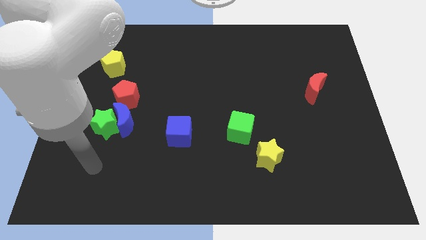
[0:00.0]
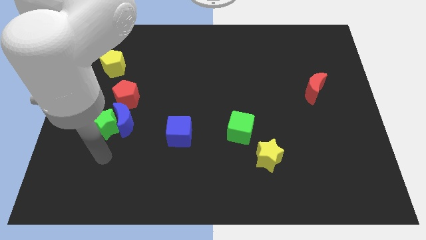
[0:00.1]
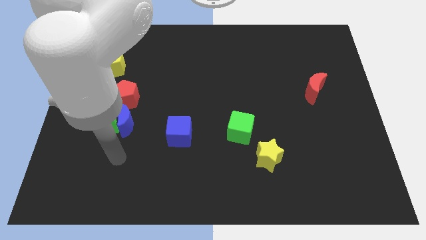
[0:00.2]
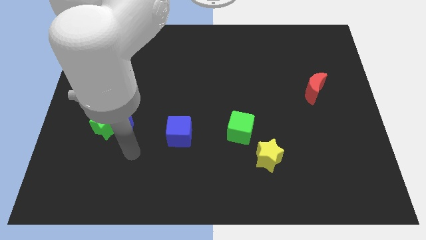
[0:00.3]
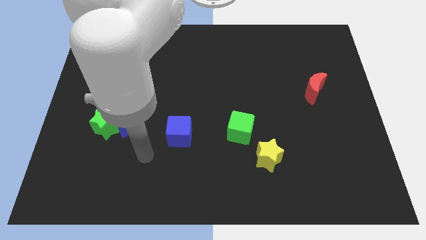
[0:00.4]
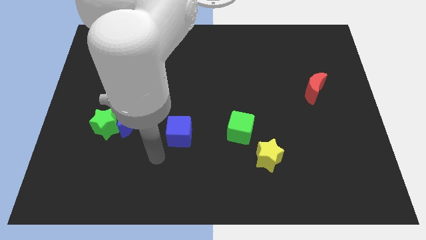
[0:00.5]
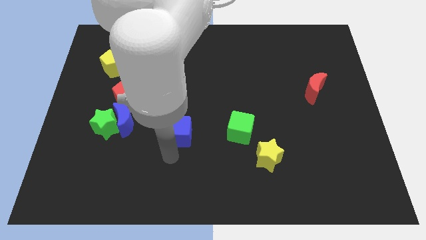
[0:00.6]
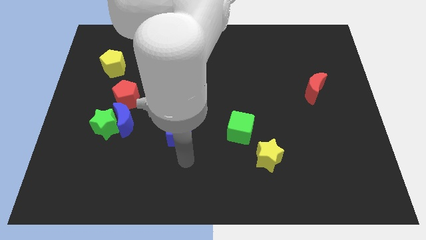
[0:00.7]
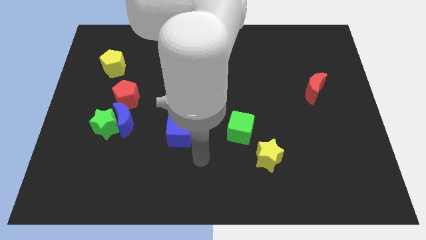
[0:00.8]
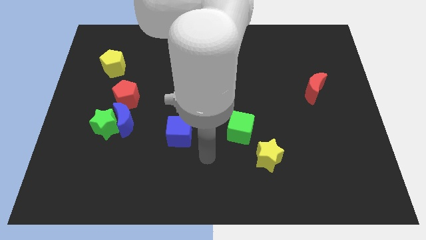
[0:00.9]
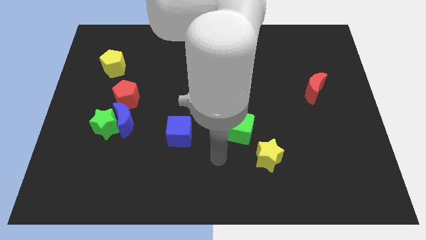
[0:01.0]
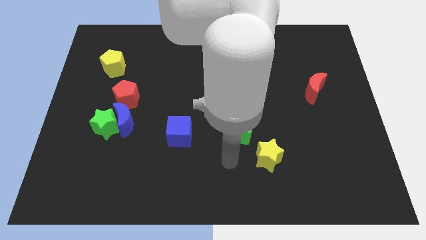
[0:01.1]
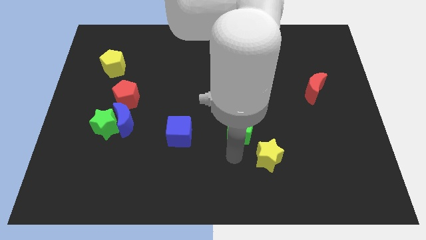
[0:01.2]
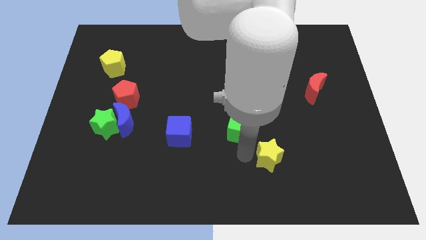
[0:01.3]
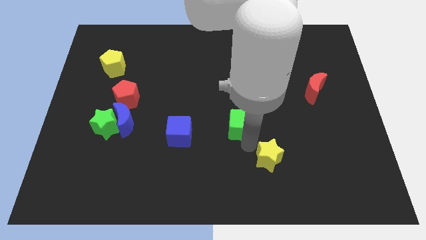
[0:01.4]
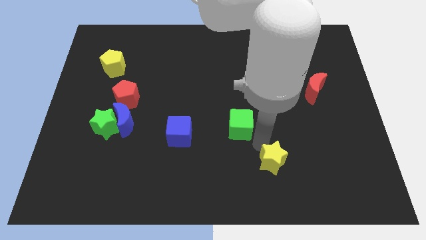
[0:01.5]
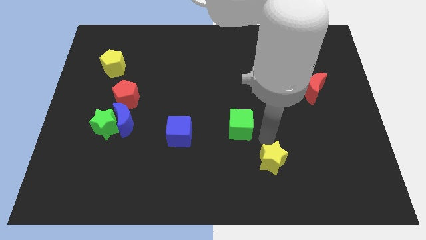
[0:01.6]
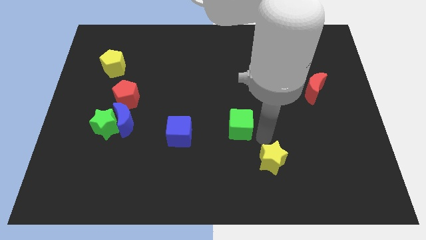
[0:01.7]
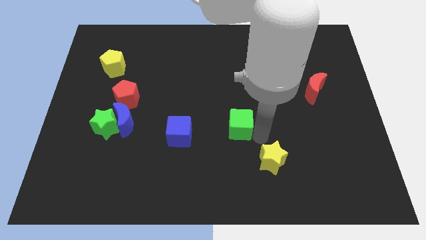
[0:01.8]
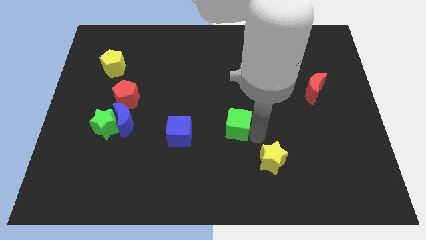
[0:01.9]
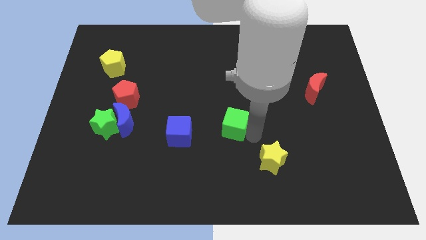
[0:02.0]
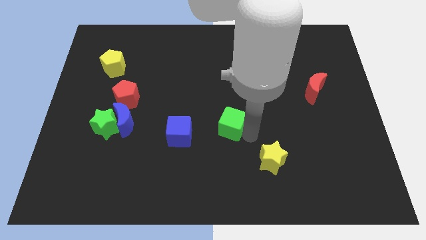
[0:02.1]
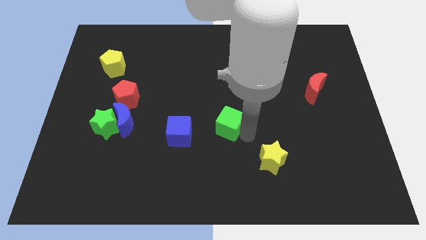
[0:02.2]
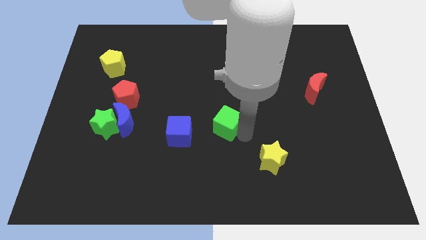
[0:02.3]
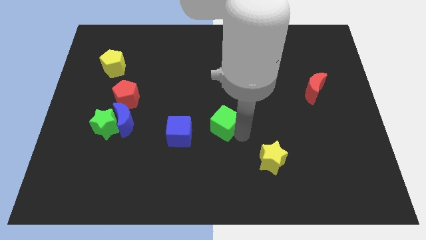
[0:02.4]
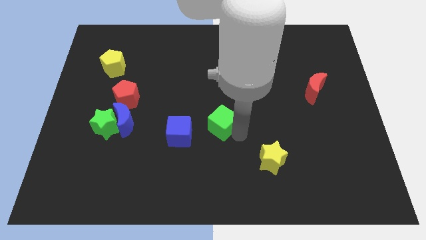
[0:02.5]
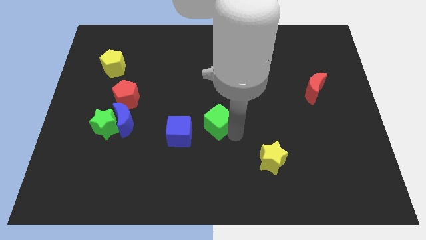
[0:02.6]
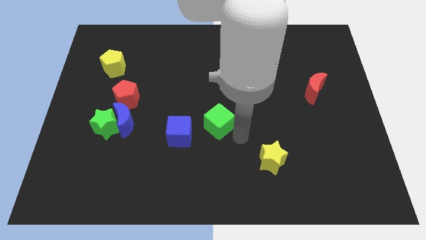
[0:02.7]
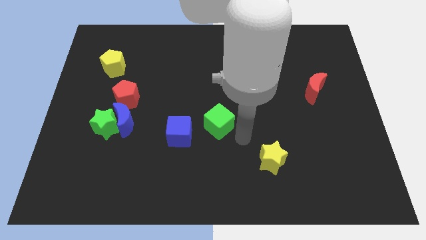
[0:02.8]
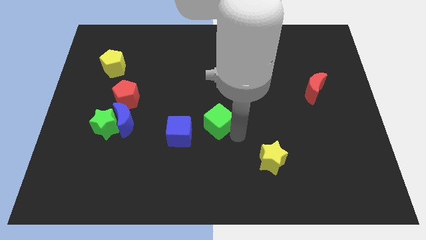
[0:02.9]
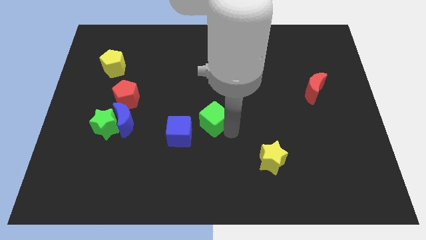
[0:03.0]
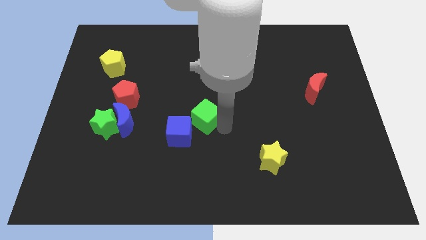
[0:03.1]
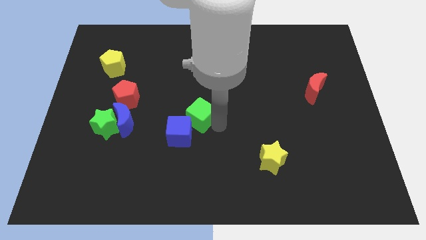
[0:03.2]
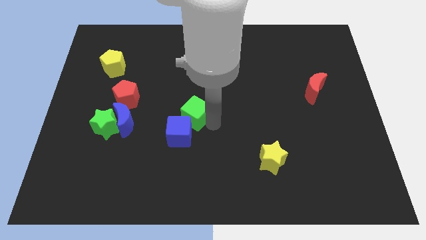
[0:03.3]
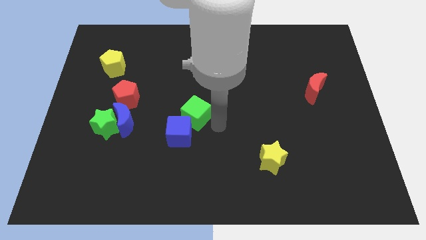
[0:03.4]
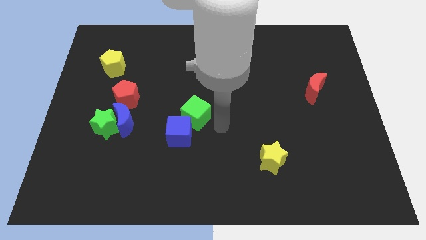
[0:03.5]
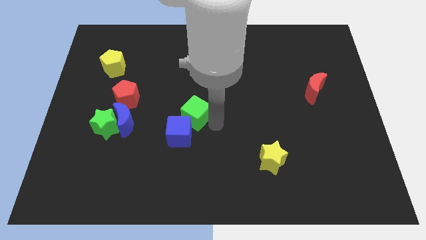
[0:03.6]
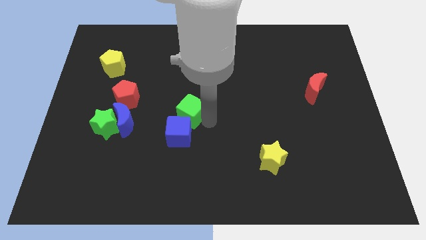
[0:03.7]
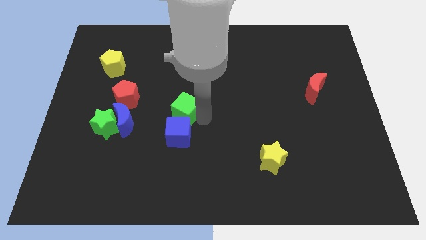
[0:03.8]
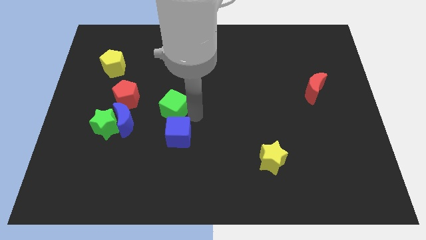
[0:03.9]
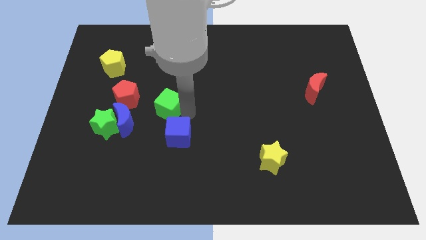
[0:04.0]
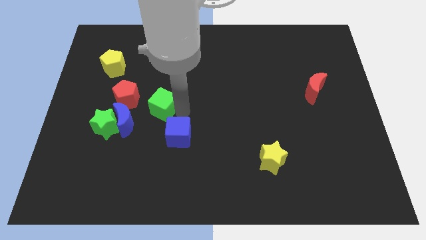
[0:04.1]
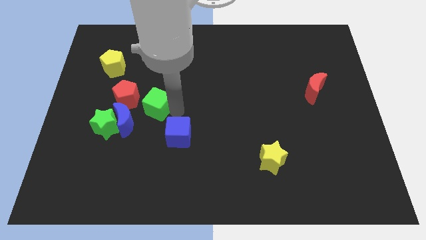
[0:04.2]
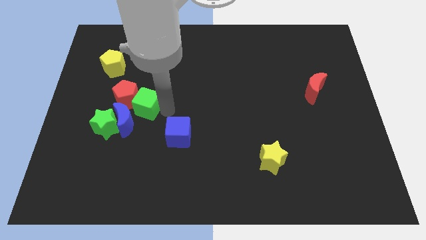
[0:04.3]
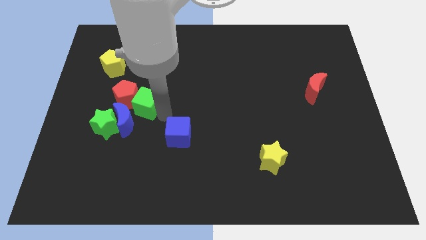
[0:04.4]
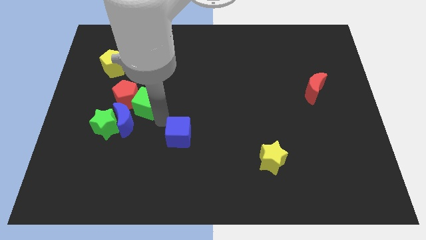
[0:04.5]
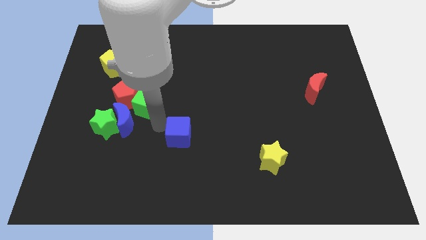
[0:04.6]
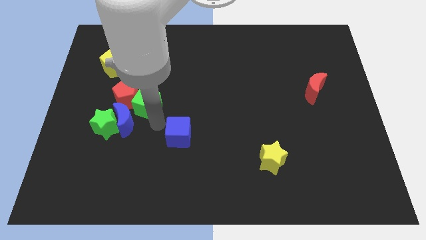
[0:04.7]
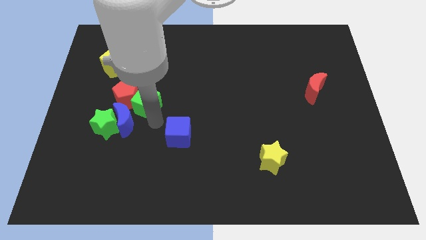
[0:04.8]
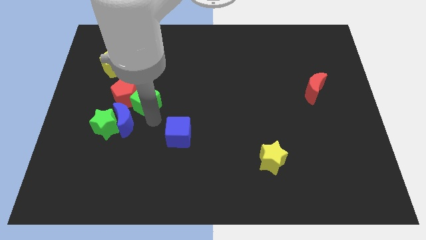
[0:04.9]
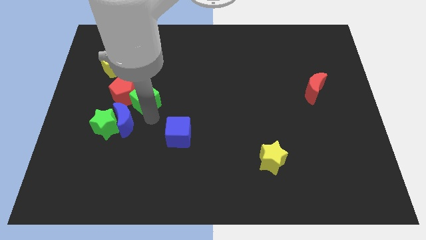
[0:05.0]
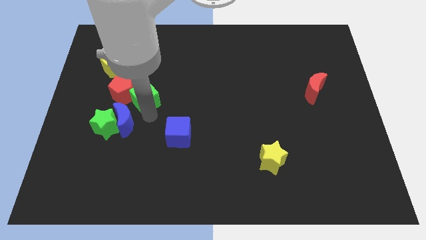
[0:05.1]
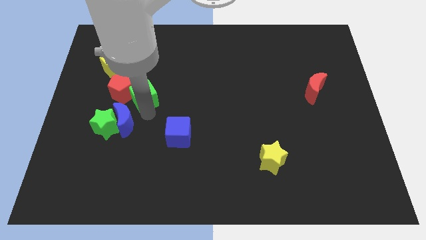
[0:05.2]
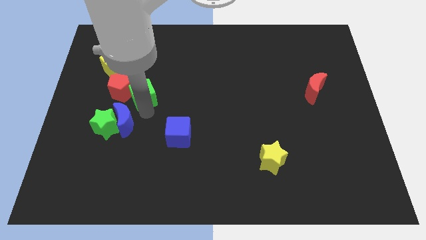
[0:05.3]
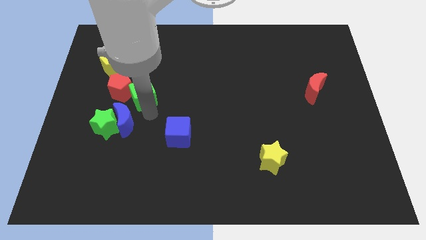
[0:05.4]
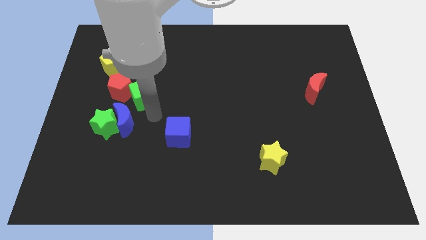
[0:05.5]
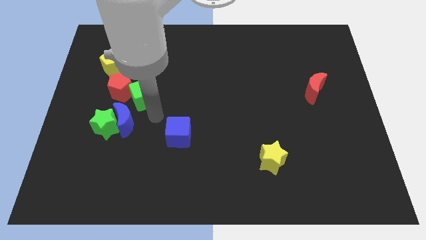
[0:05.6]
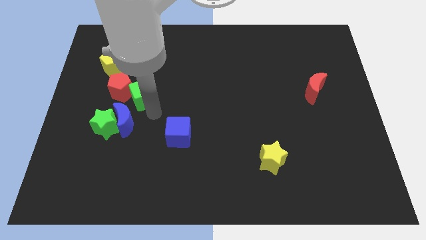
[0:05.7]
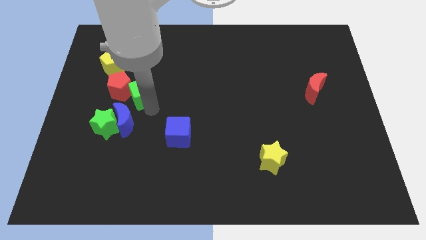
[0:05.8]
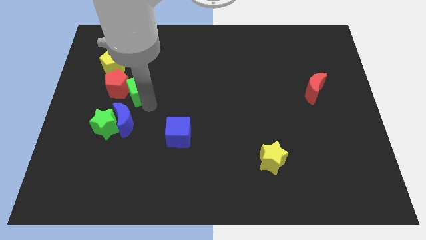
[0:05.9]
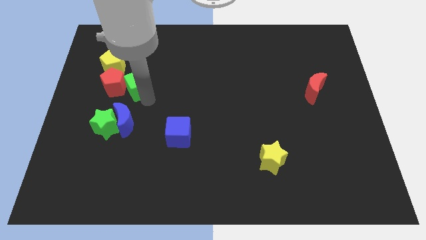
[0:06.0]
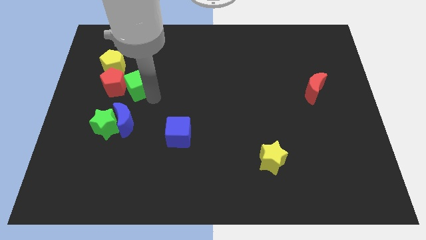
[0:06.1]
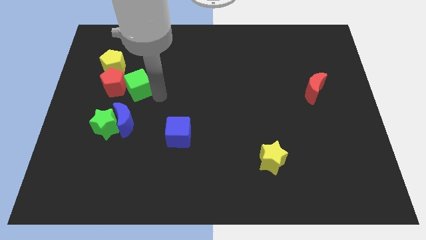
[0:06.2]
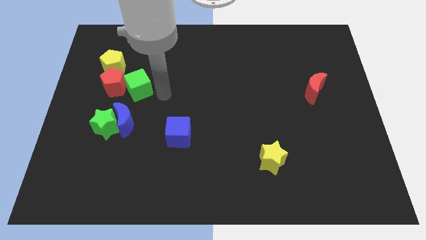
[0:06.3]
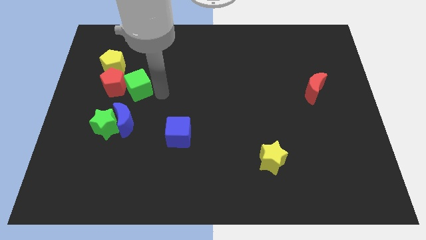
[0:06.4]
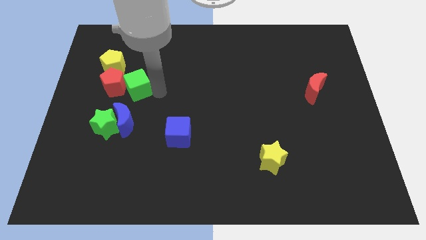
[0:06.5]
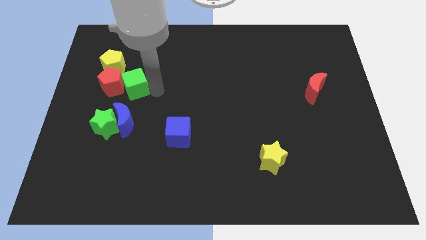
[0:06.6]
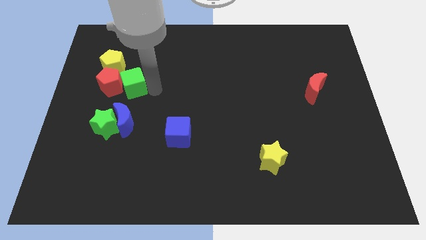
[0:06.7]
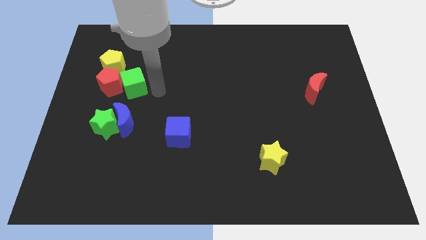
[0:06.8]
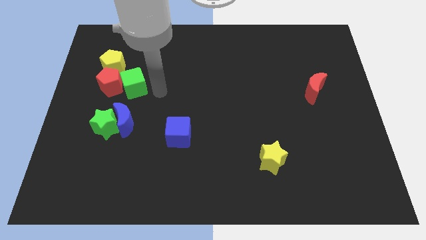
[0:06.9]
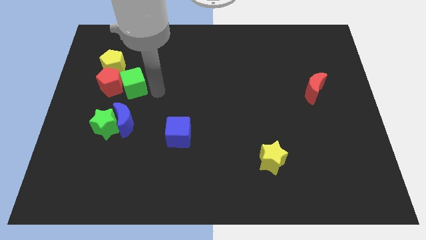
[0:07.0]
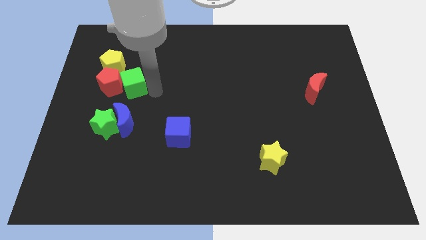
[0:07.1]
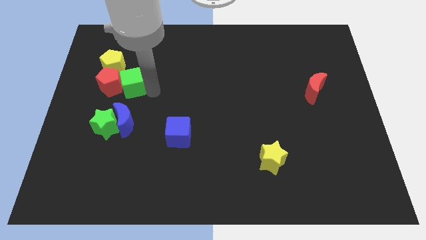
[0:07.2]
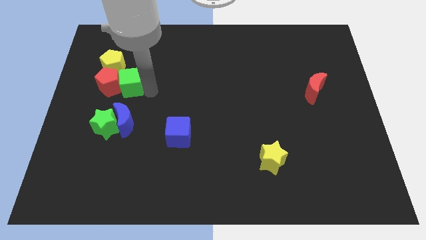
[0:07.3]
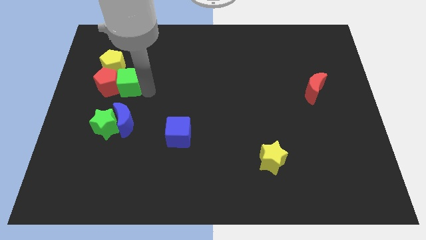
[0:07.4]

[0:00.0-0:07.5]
push the green cube to the bottom of the yellow pentagon

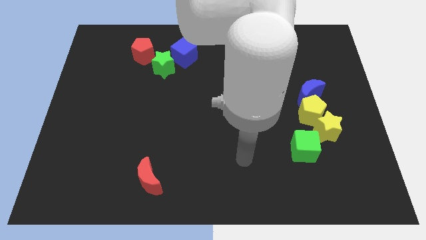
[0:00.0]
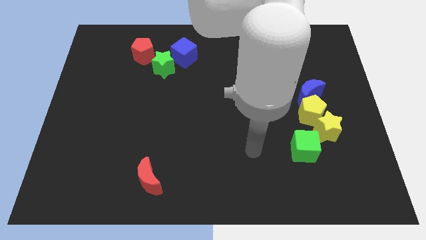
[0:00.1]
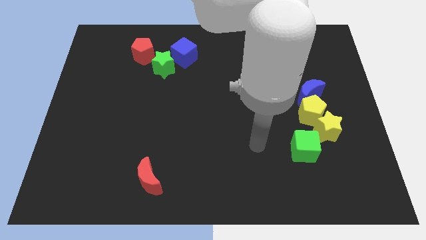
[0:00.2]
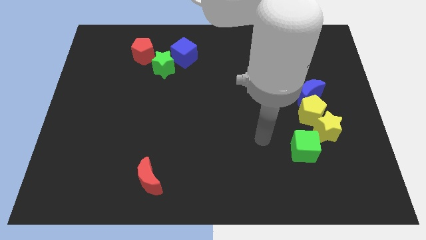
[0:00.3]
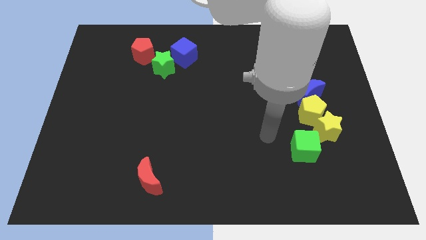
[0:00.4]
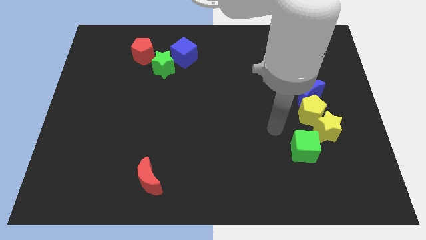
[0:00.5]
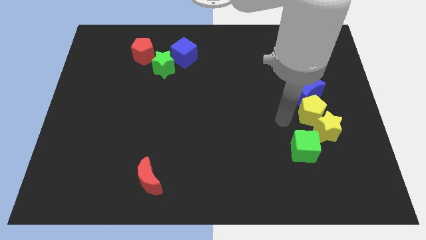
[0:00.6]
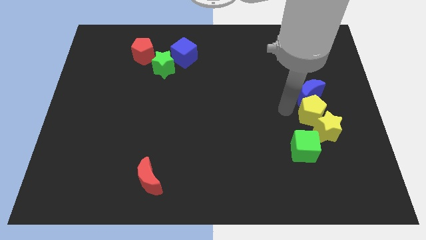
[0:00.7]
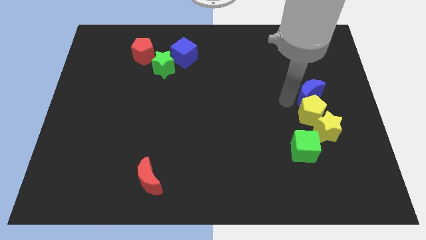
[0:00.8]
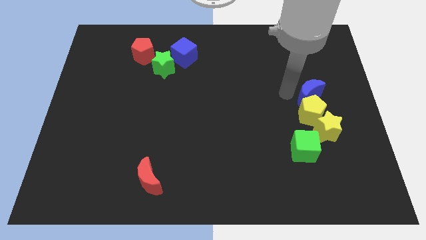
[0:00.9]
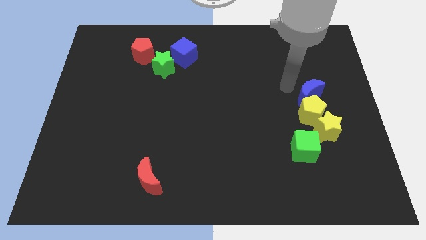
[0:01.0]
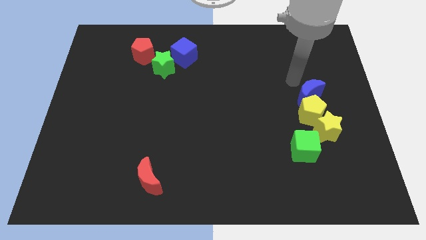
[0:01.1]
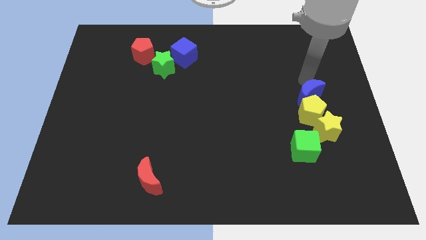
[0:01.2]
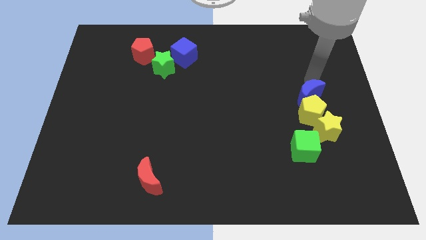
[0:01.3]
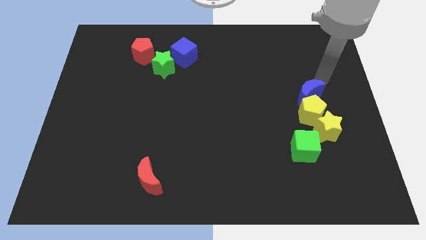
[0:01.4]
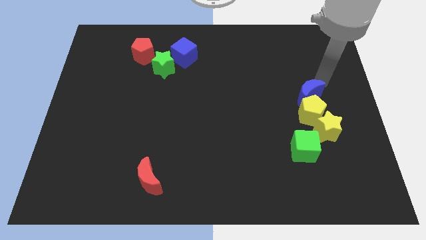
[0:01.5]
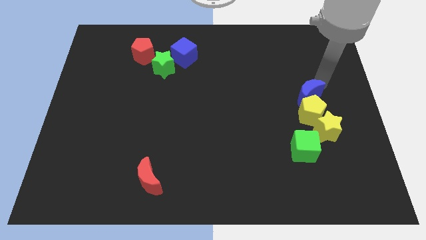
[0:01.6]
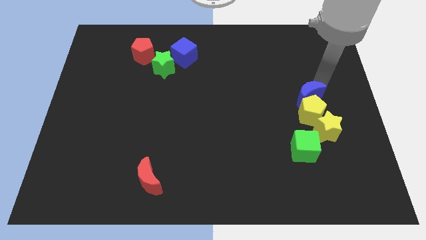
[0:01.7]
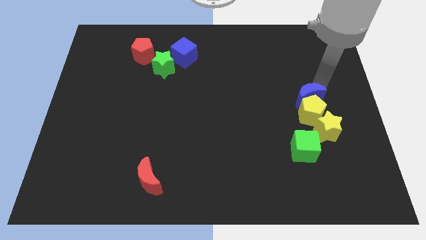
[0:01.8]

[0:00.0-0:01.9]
push the blue moon to the top left of the yellow star
